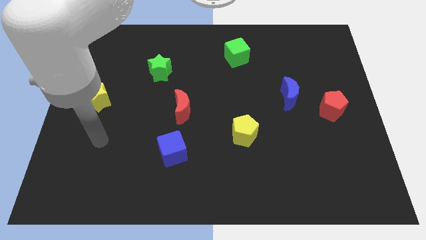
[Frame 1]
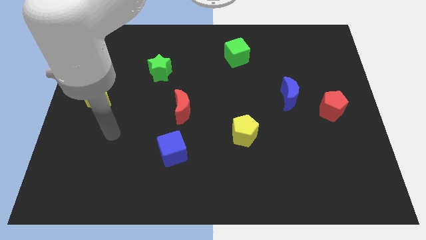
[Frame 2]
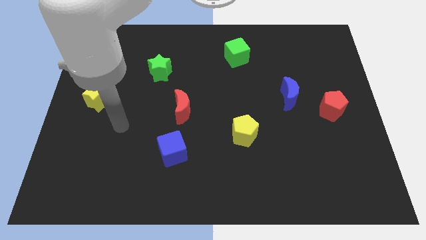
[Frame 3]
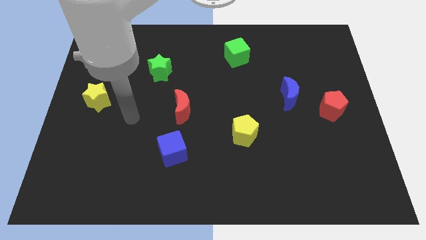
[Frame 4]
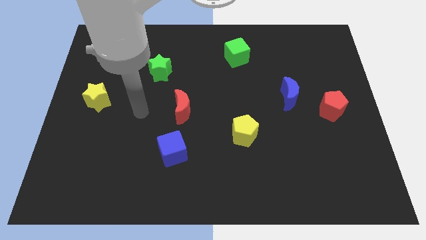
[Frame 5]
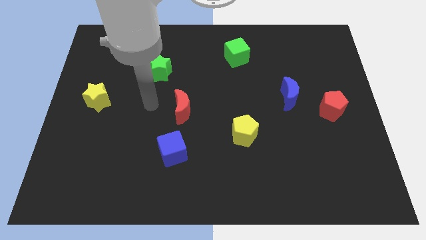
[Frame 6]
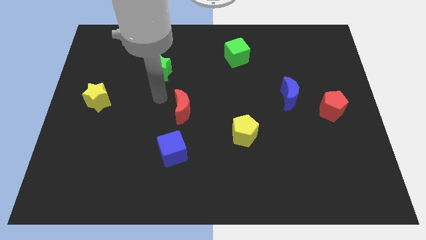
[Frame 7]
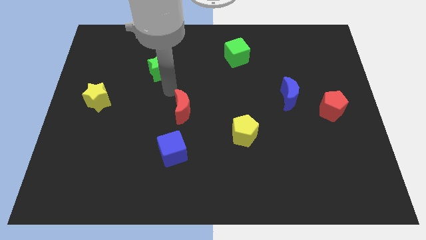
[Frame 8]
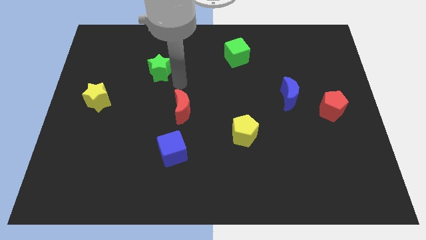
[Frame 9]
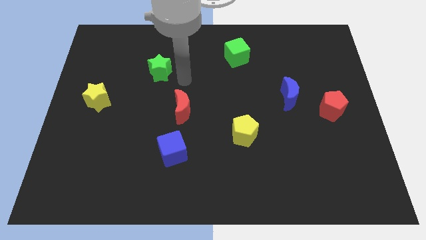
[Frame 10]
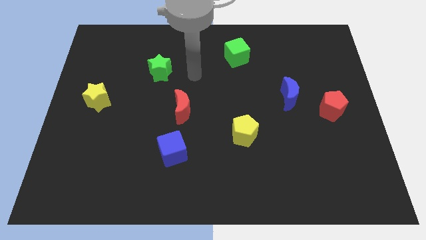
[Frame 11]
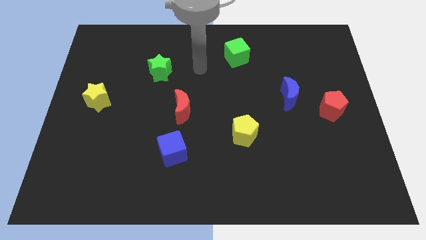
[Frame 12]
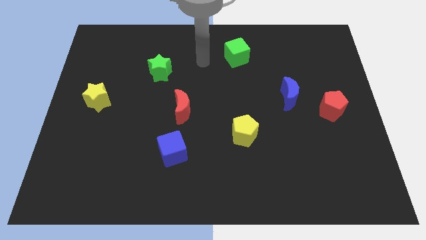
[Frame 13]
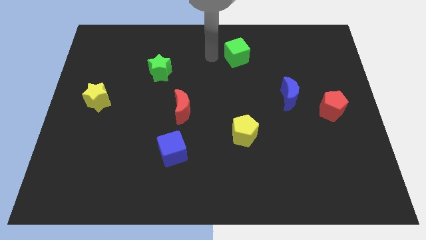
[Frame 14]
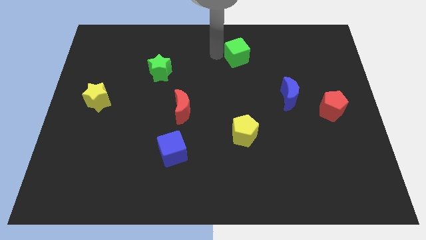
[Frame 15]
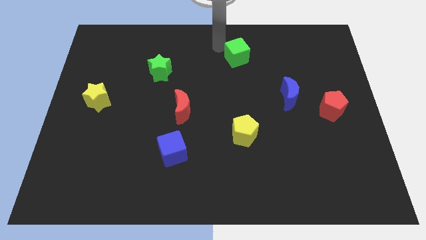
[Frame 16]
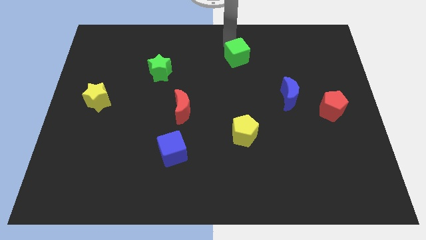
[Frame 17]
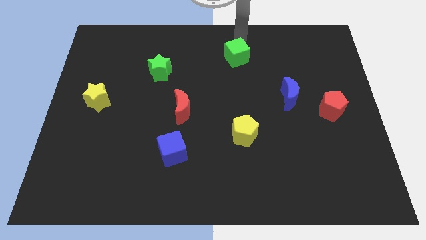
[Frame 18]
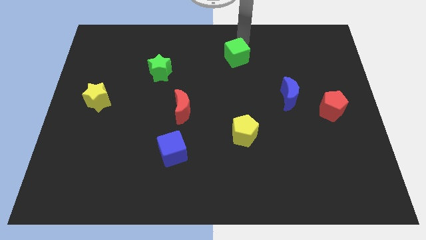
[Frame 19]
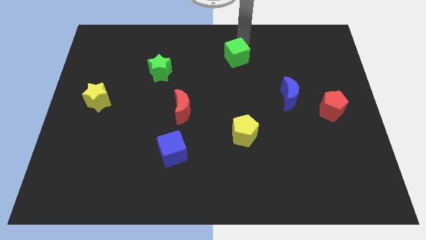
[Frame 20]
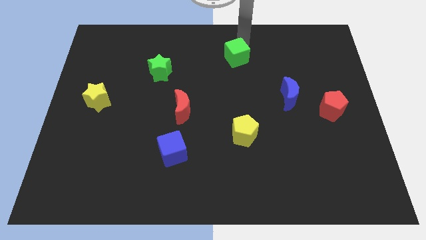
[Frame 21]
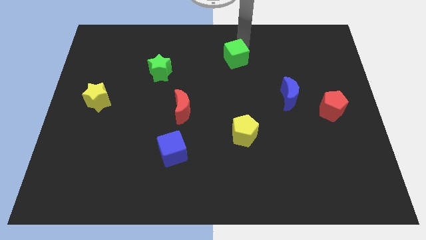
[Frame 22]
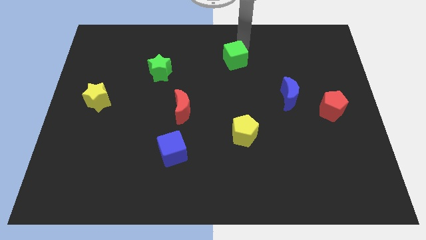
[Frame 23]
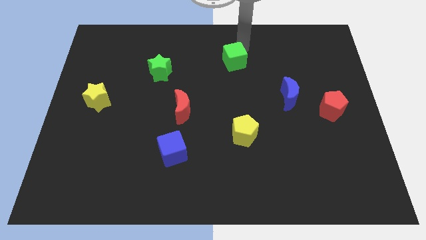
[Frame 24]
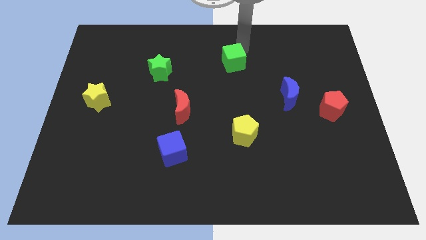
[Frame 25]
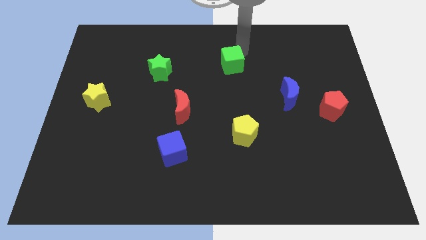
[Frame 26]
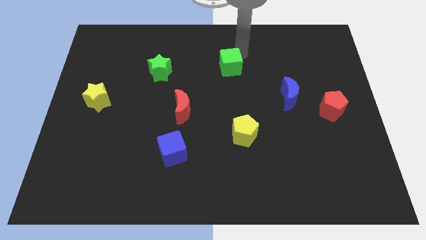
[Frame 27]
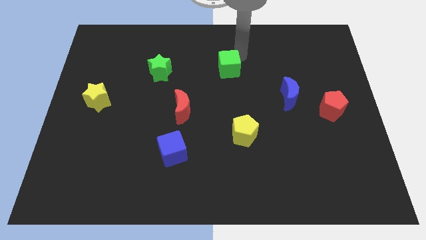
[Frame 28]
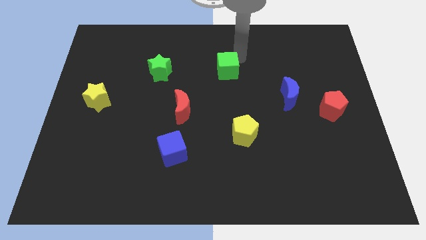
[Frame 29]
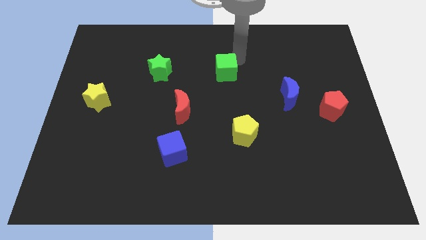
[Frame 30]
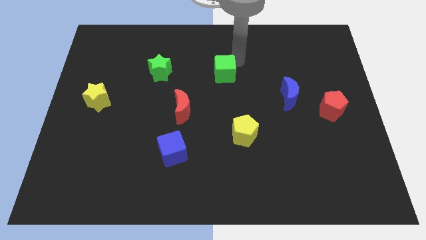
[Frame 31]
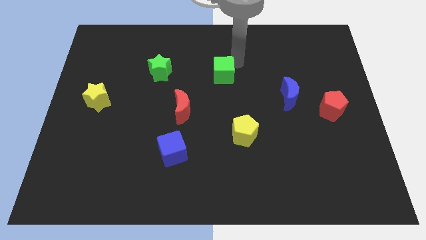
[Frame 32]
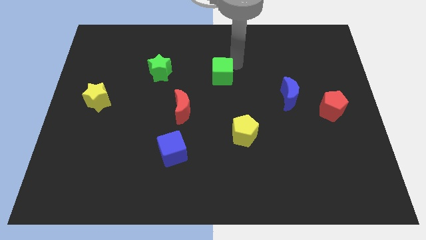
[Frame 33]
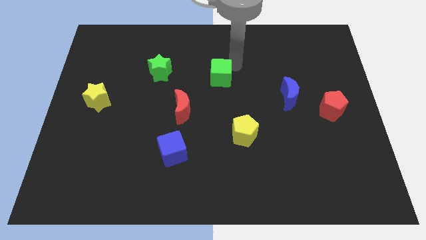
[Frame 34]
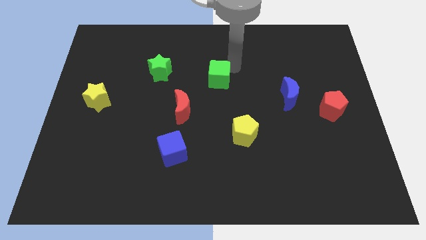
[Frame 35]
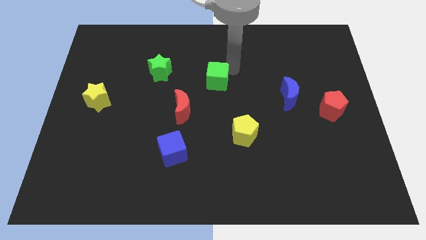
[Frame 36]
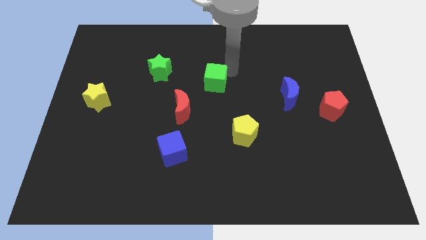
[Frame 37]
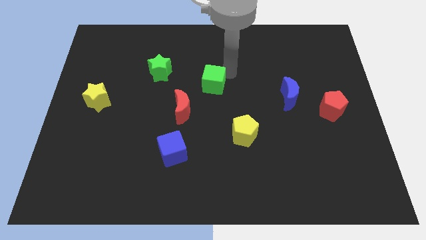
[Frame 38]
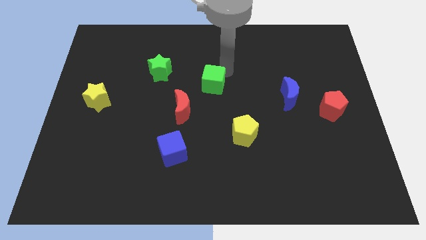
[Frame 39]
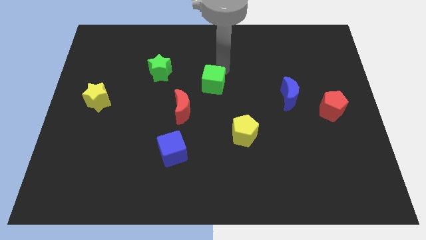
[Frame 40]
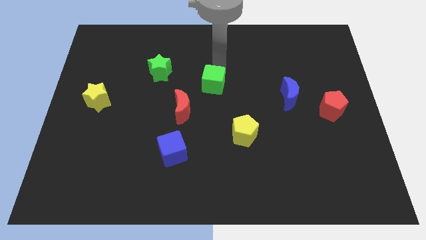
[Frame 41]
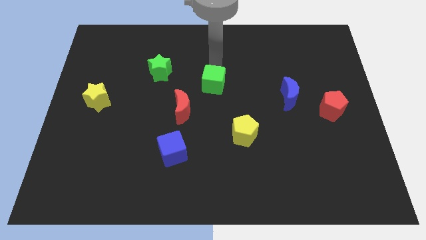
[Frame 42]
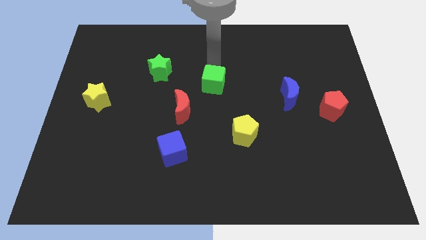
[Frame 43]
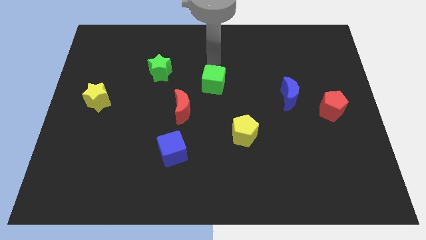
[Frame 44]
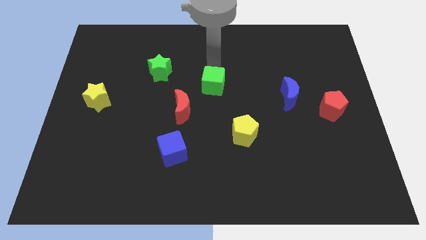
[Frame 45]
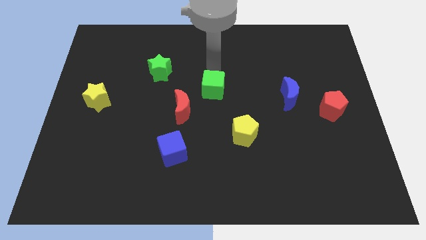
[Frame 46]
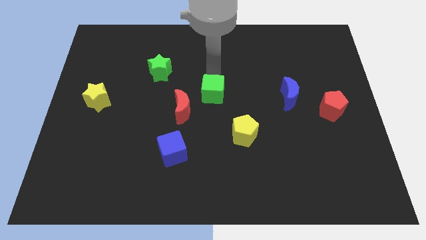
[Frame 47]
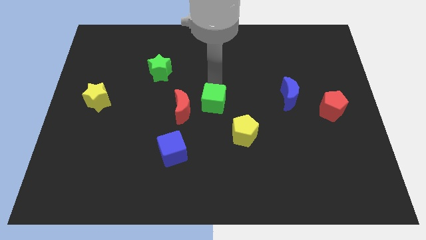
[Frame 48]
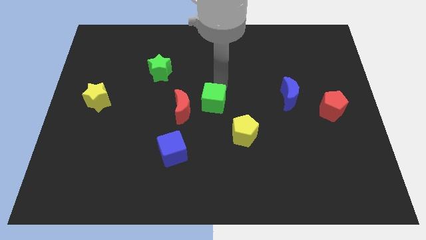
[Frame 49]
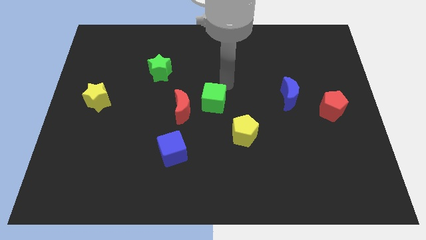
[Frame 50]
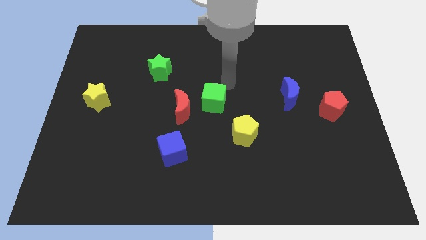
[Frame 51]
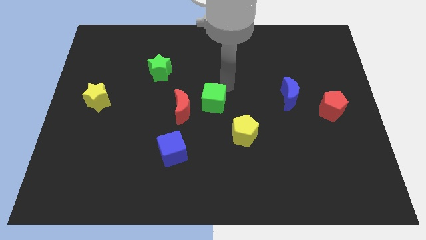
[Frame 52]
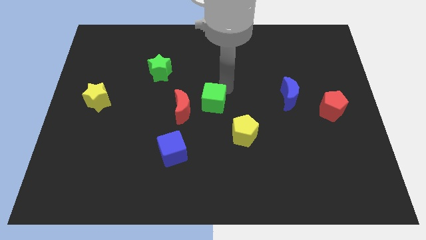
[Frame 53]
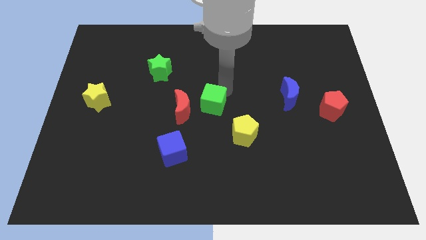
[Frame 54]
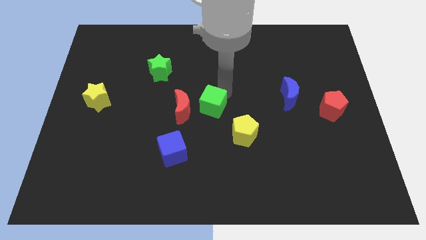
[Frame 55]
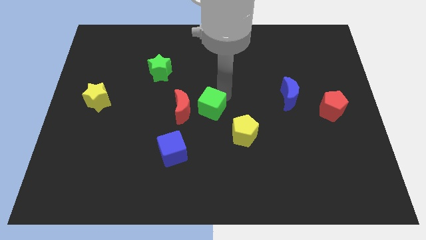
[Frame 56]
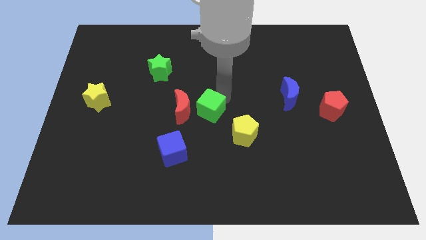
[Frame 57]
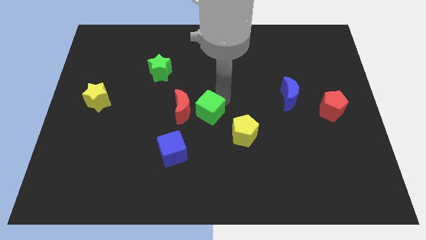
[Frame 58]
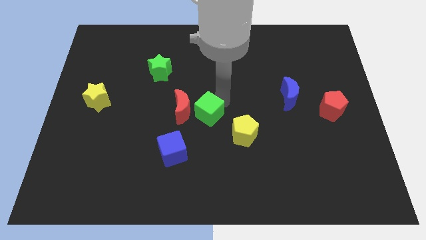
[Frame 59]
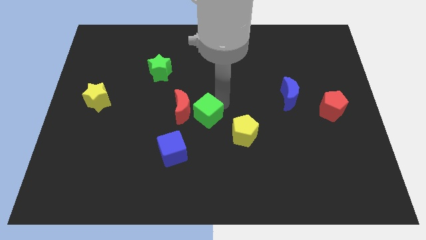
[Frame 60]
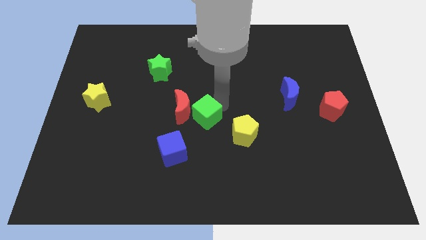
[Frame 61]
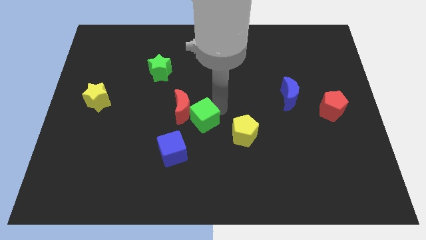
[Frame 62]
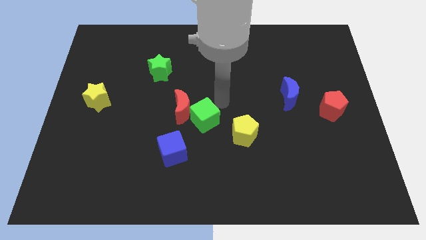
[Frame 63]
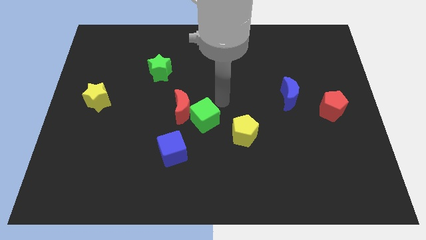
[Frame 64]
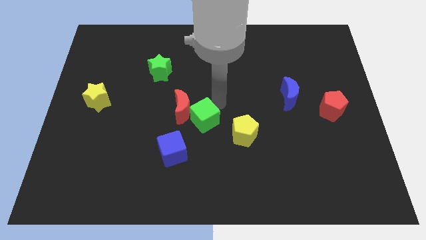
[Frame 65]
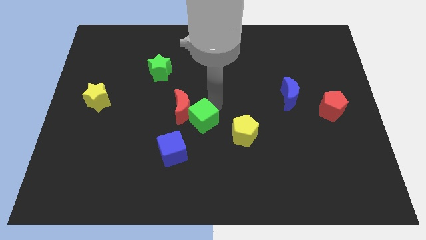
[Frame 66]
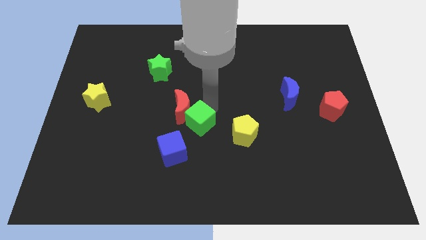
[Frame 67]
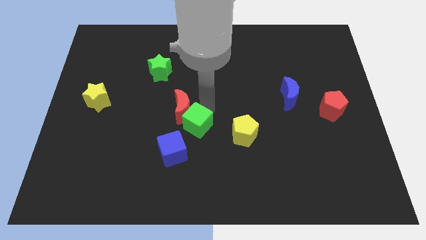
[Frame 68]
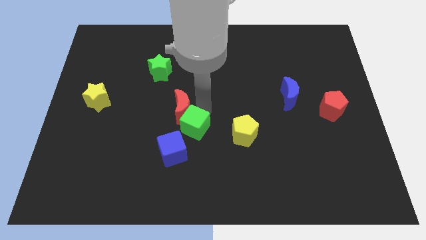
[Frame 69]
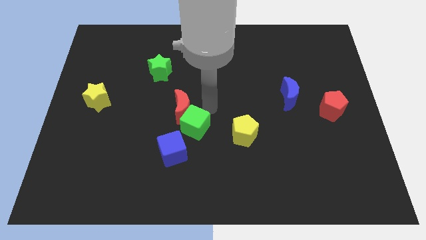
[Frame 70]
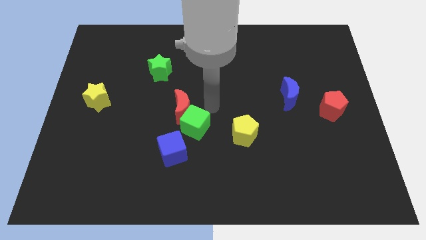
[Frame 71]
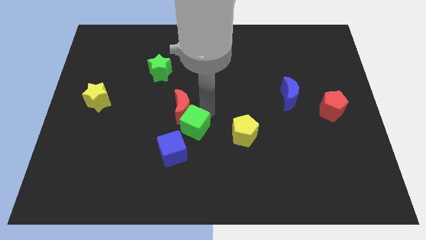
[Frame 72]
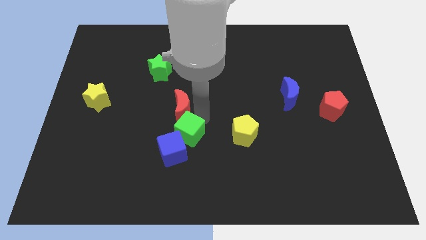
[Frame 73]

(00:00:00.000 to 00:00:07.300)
slide the green cube close to the blue cube

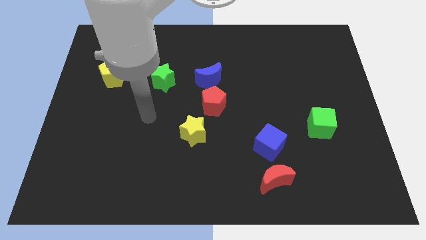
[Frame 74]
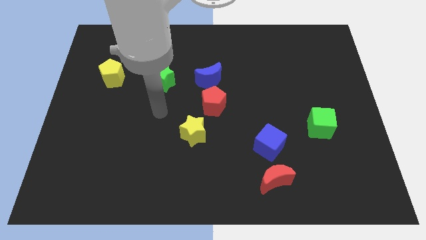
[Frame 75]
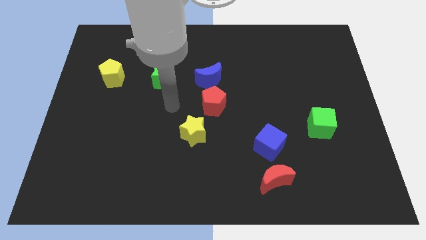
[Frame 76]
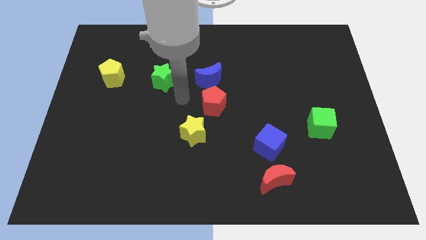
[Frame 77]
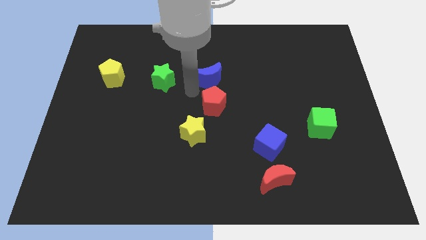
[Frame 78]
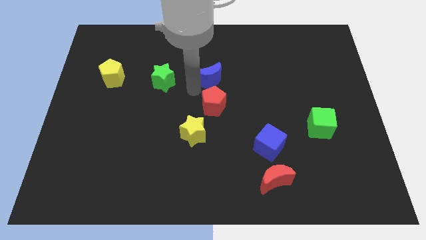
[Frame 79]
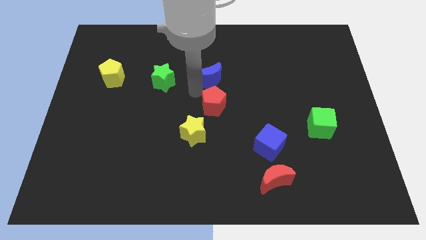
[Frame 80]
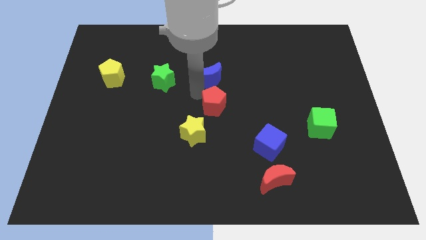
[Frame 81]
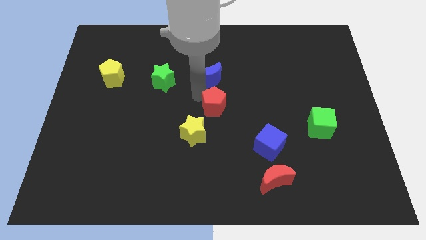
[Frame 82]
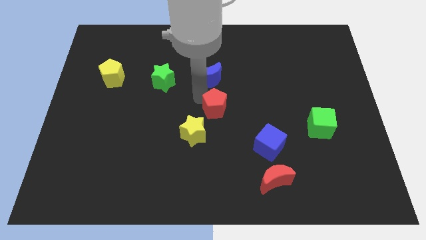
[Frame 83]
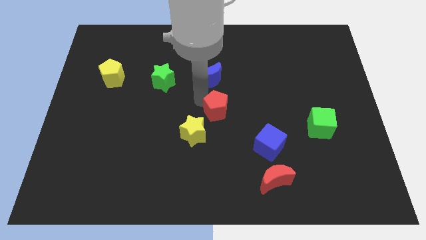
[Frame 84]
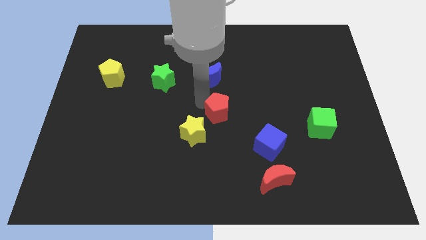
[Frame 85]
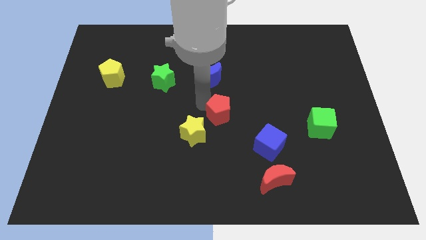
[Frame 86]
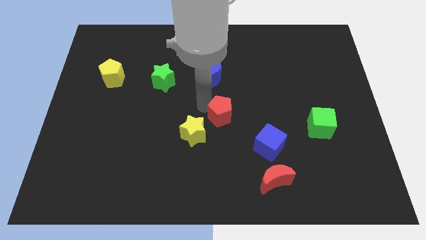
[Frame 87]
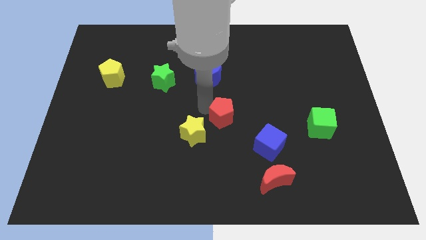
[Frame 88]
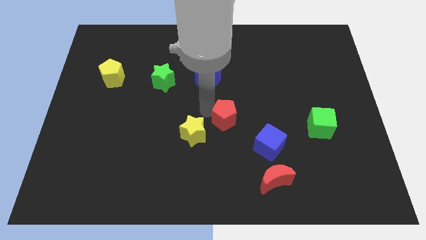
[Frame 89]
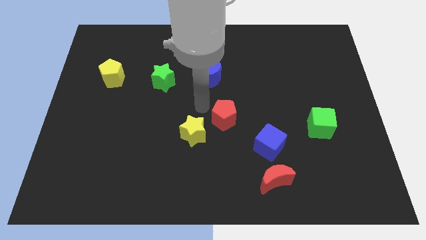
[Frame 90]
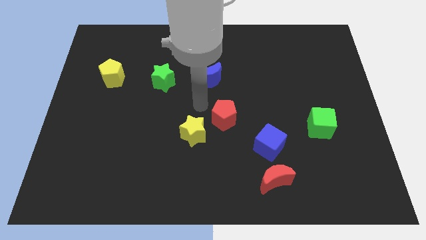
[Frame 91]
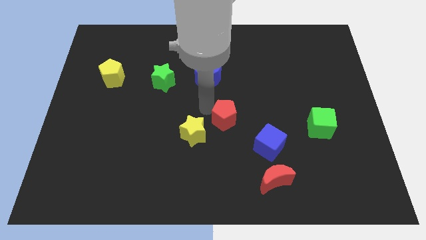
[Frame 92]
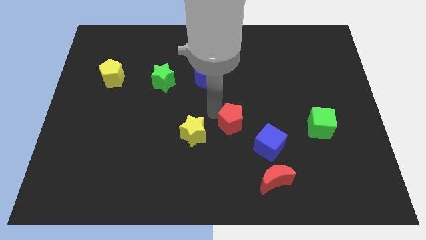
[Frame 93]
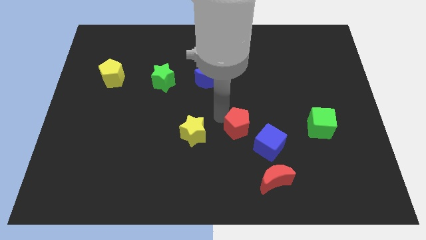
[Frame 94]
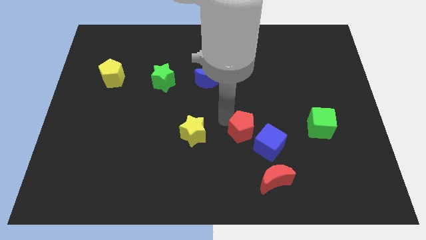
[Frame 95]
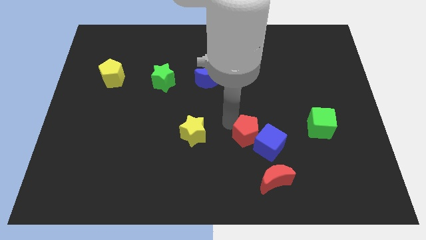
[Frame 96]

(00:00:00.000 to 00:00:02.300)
put the red pentagon close to the blue cube
